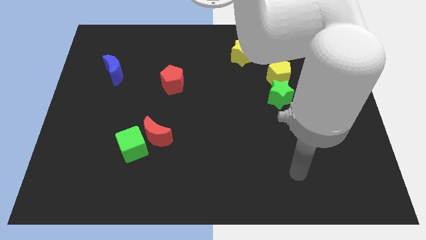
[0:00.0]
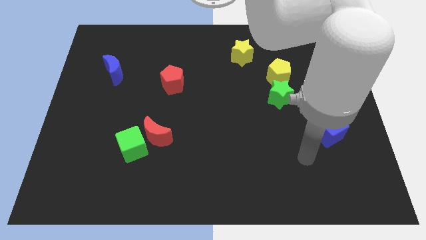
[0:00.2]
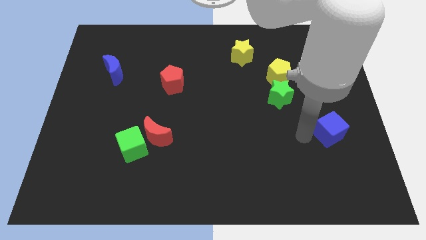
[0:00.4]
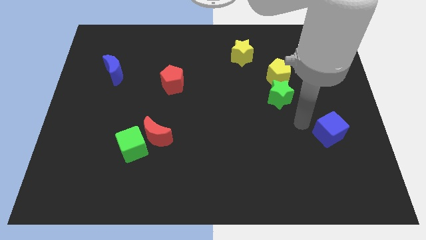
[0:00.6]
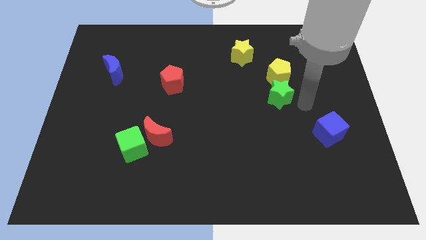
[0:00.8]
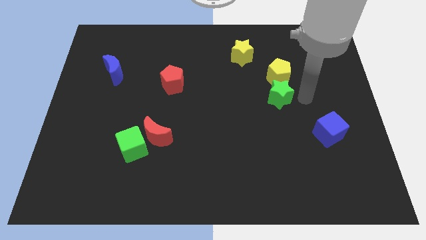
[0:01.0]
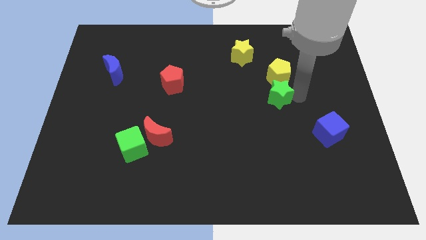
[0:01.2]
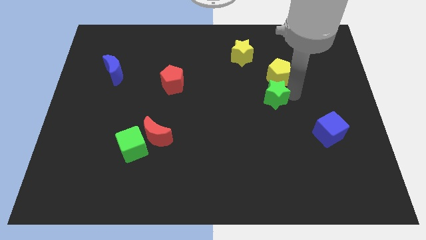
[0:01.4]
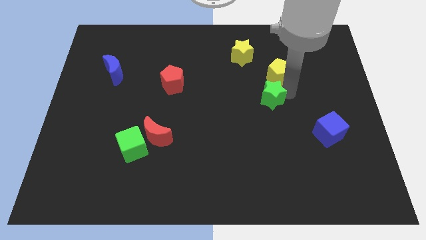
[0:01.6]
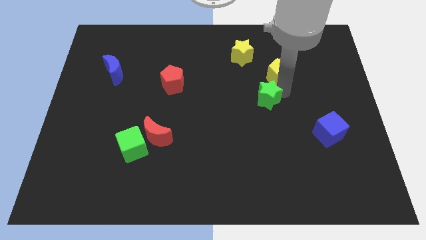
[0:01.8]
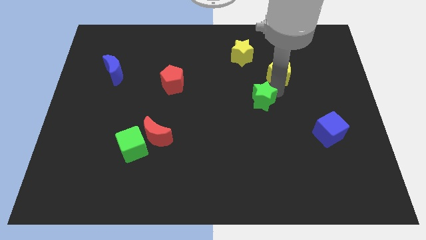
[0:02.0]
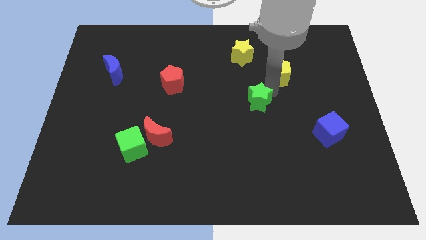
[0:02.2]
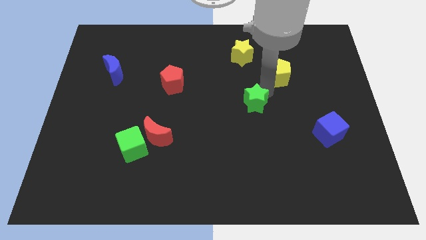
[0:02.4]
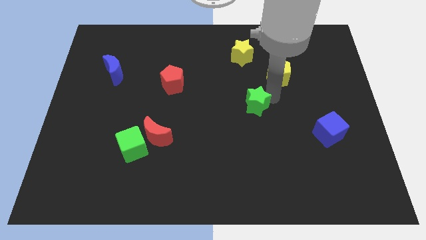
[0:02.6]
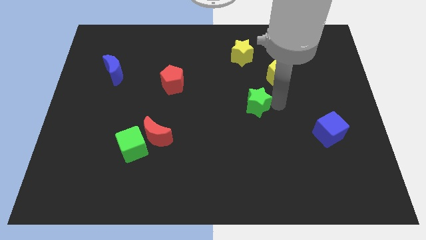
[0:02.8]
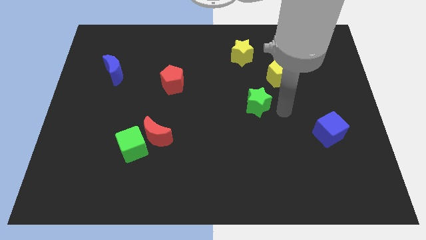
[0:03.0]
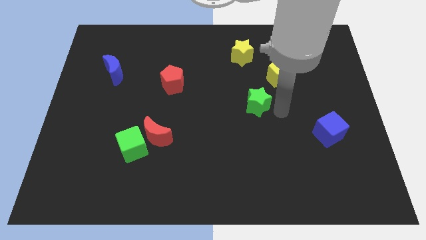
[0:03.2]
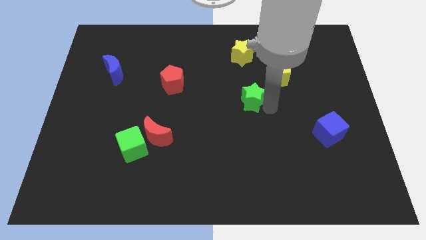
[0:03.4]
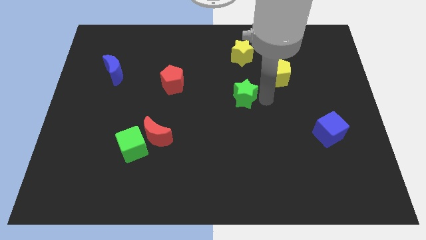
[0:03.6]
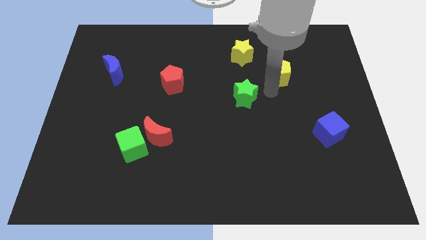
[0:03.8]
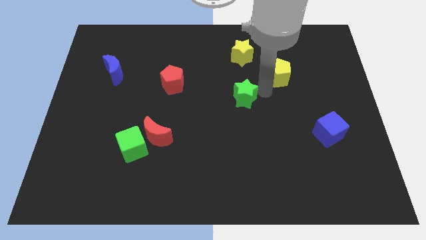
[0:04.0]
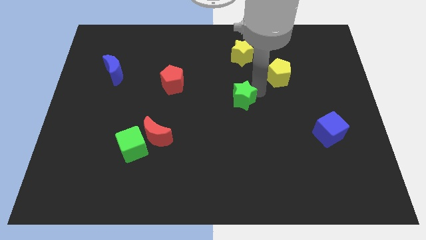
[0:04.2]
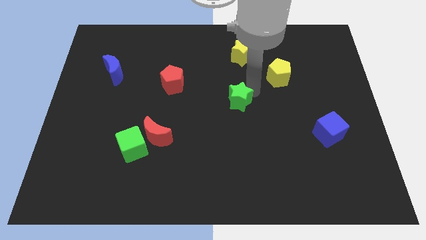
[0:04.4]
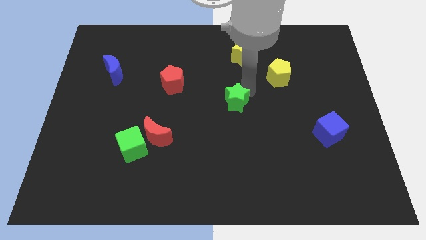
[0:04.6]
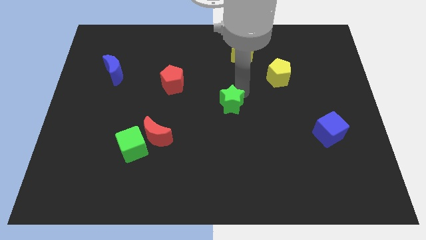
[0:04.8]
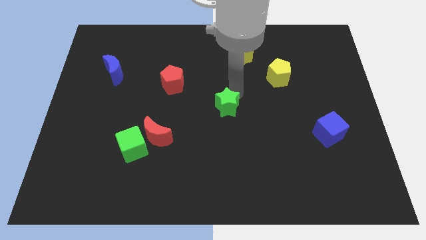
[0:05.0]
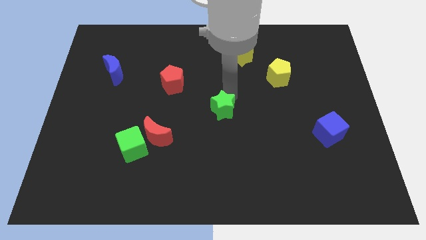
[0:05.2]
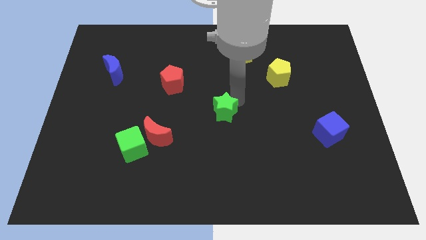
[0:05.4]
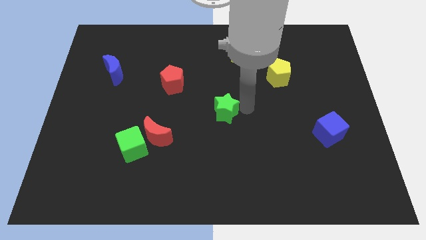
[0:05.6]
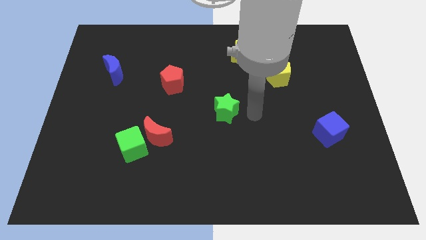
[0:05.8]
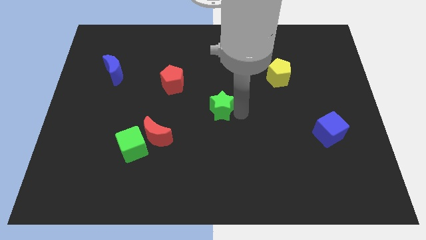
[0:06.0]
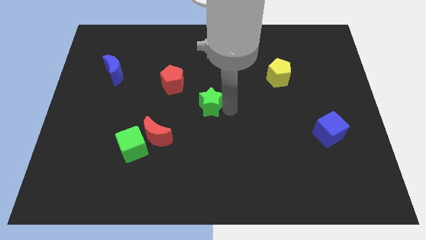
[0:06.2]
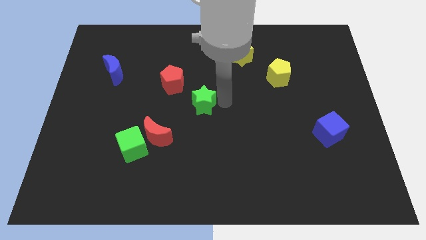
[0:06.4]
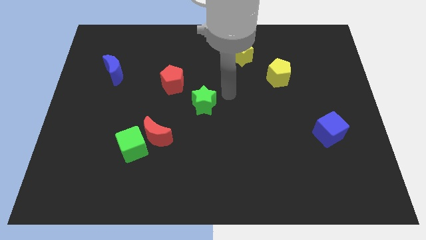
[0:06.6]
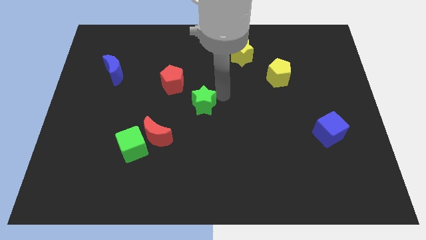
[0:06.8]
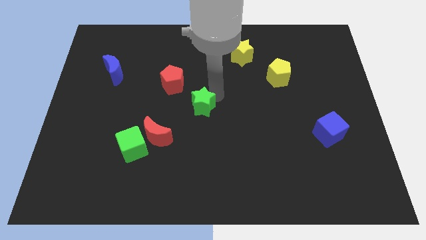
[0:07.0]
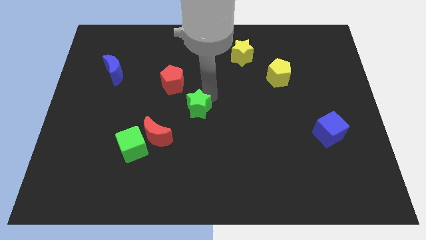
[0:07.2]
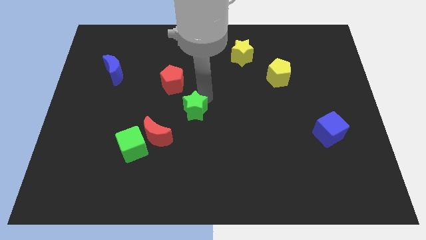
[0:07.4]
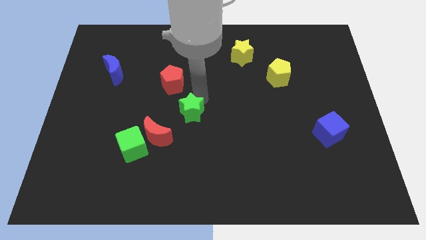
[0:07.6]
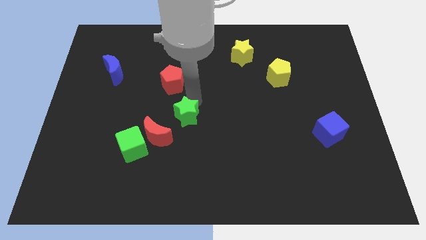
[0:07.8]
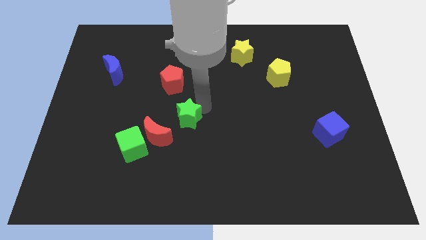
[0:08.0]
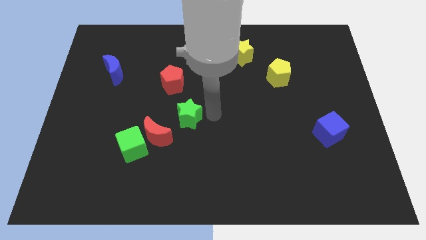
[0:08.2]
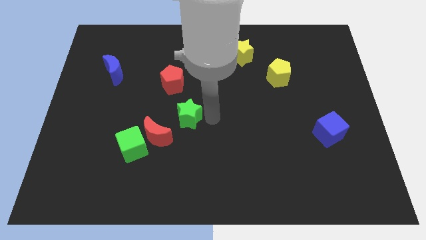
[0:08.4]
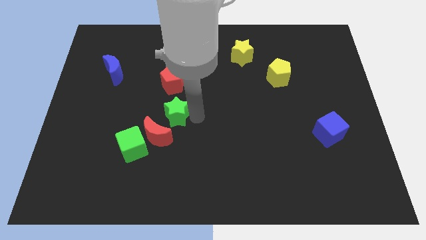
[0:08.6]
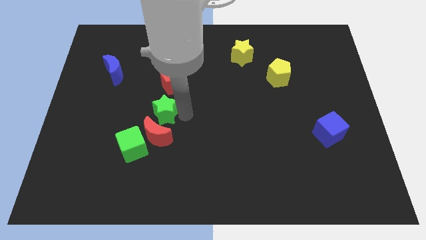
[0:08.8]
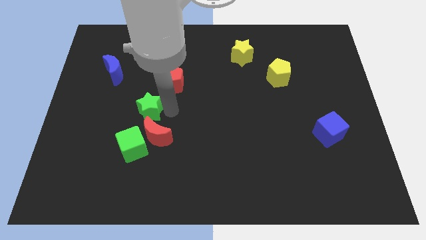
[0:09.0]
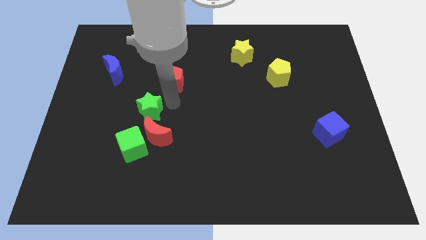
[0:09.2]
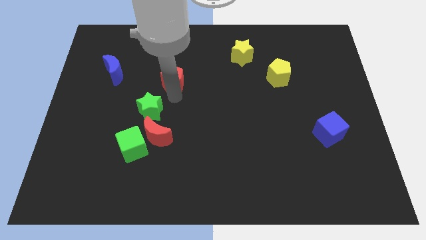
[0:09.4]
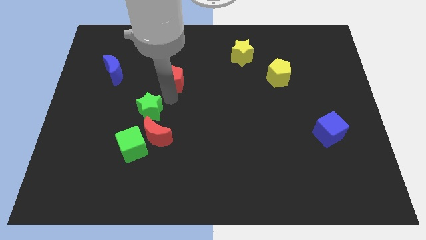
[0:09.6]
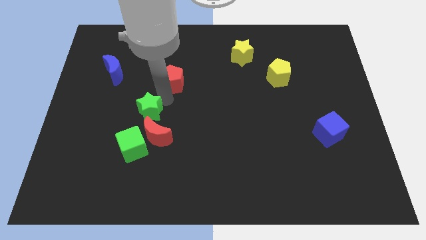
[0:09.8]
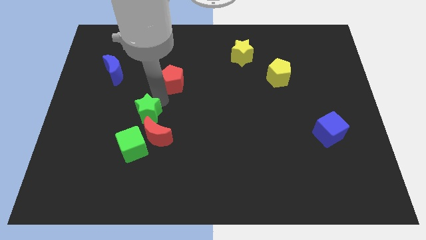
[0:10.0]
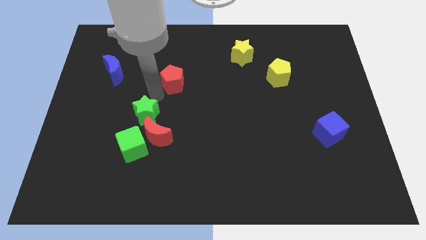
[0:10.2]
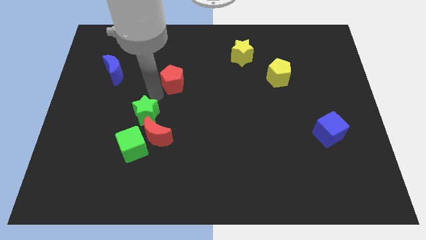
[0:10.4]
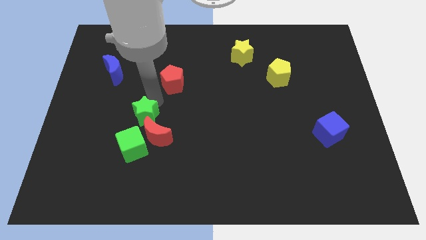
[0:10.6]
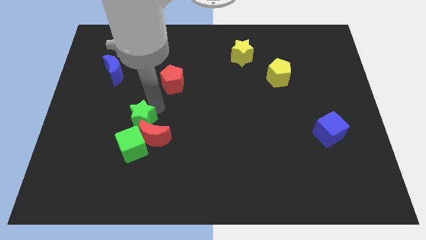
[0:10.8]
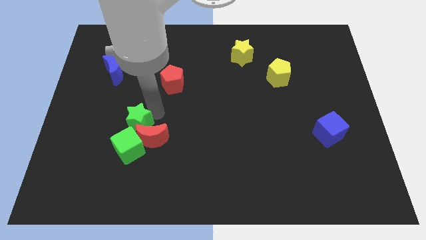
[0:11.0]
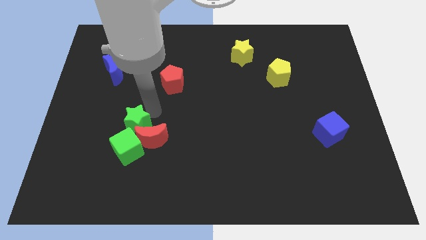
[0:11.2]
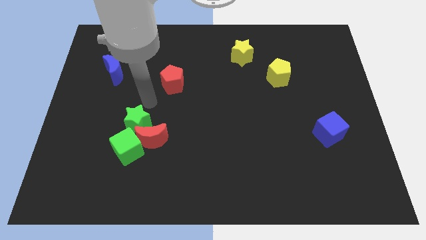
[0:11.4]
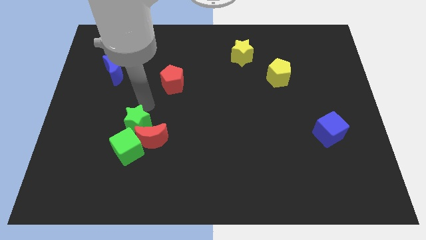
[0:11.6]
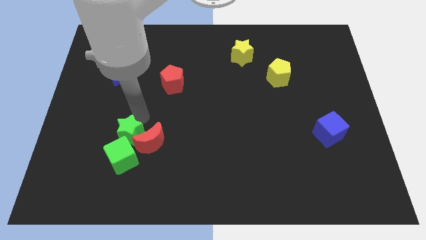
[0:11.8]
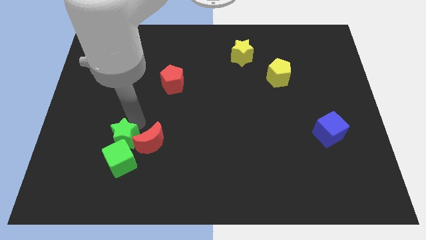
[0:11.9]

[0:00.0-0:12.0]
put the green star to the green cube

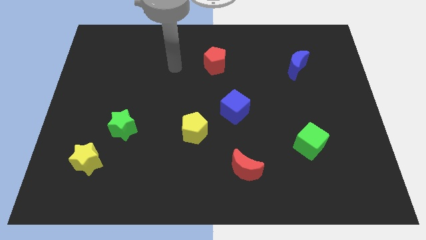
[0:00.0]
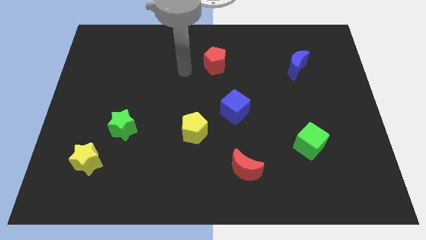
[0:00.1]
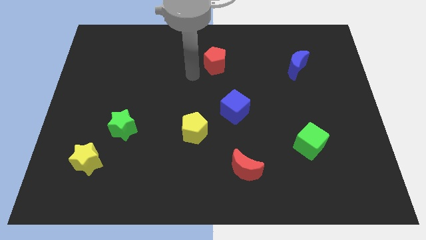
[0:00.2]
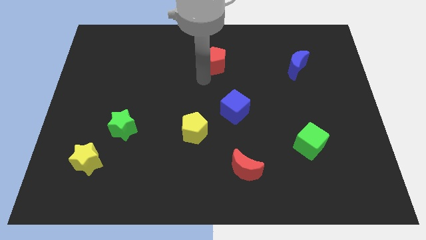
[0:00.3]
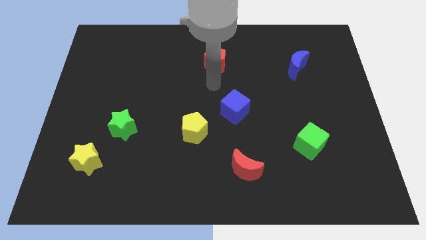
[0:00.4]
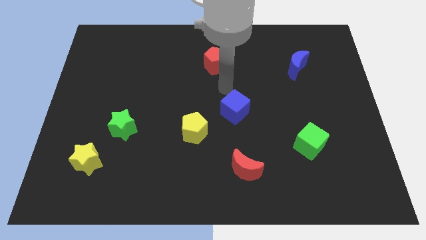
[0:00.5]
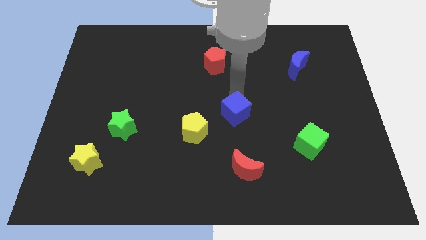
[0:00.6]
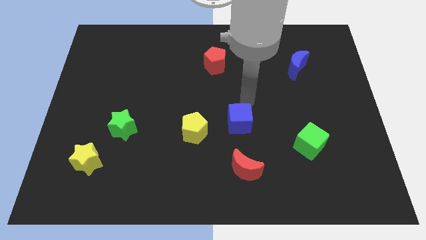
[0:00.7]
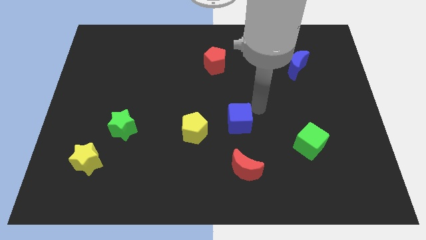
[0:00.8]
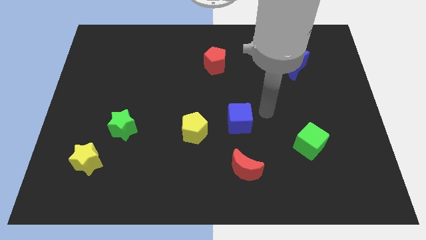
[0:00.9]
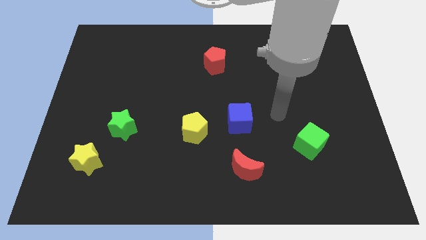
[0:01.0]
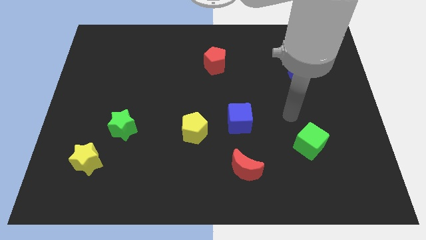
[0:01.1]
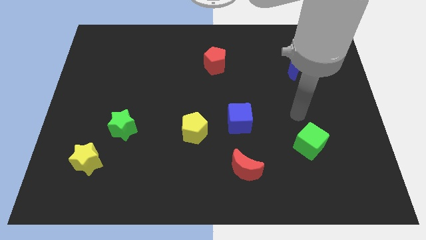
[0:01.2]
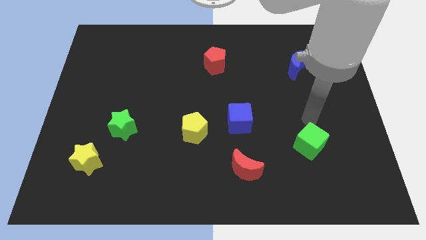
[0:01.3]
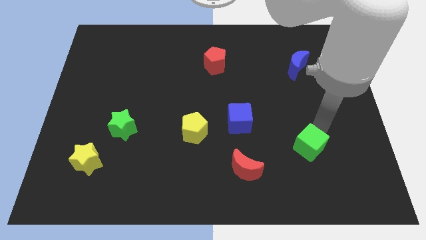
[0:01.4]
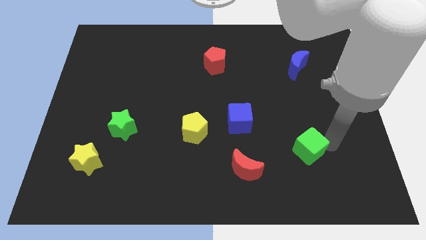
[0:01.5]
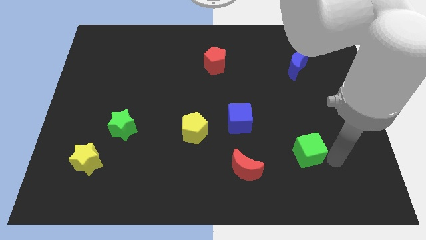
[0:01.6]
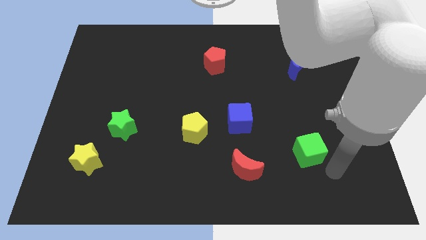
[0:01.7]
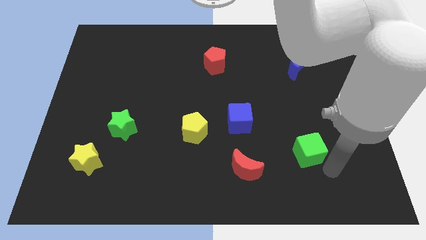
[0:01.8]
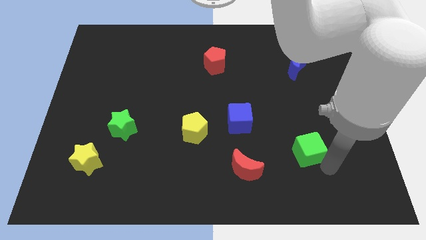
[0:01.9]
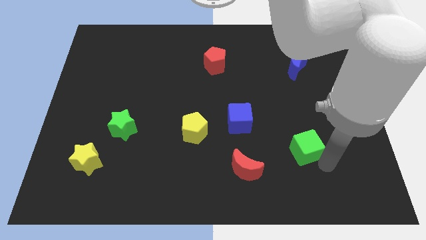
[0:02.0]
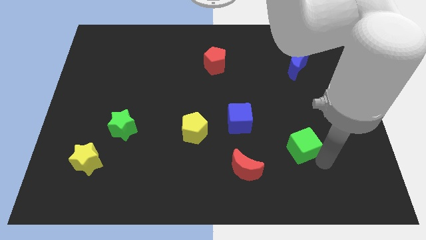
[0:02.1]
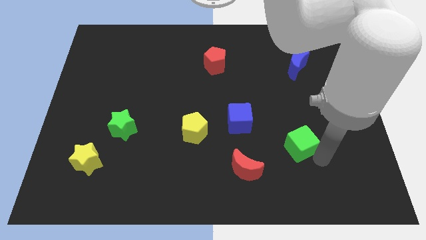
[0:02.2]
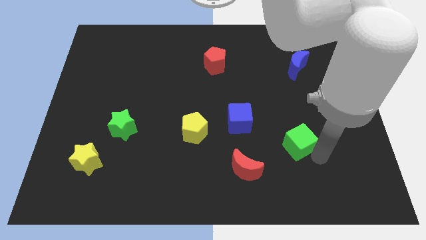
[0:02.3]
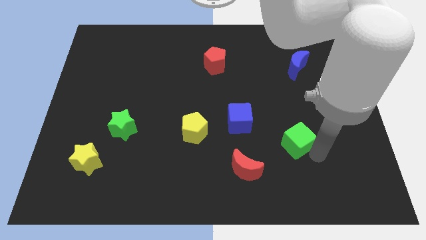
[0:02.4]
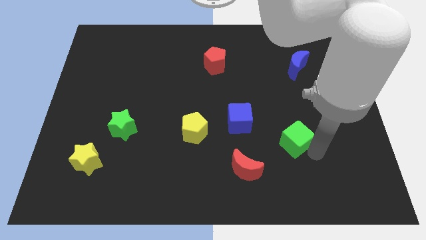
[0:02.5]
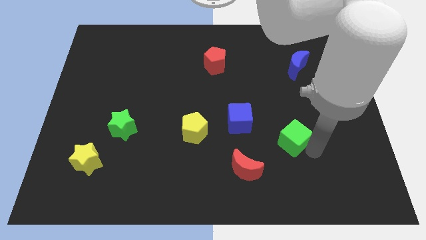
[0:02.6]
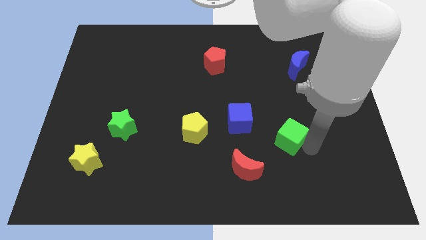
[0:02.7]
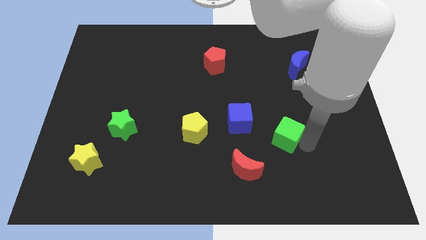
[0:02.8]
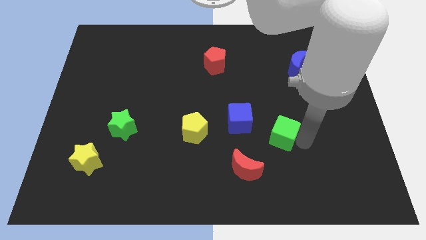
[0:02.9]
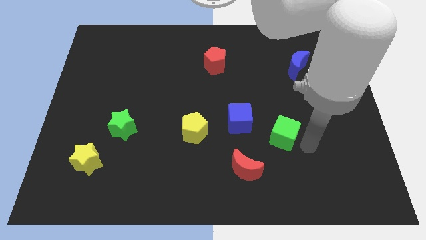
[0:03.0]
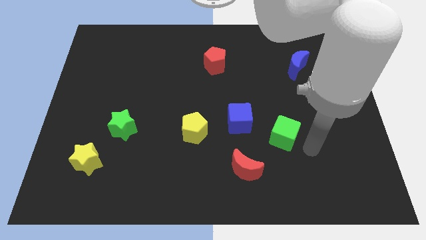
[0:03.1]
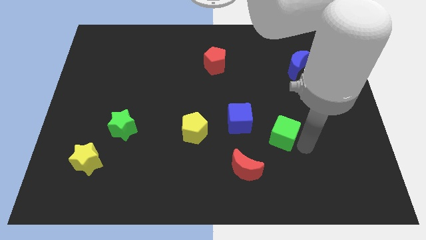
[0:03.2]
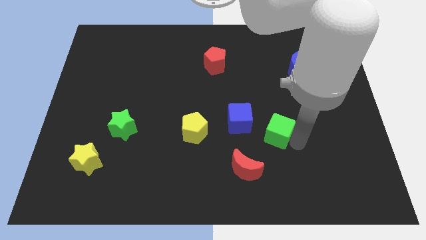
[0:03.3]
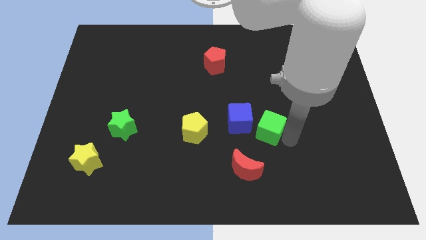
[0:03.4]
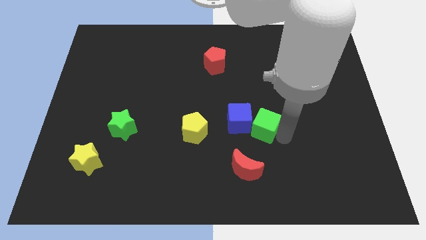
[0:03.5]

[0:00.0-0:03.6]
slide the green cube close to the blue cube
